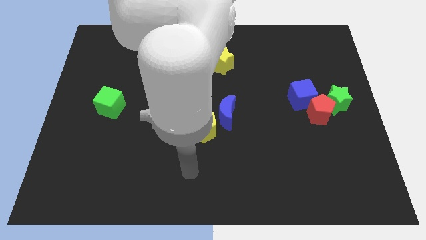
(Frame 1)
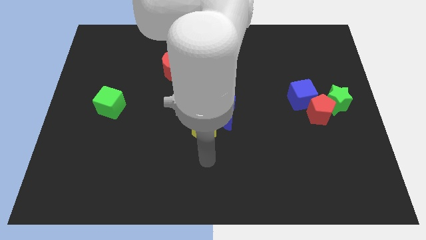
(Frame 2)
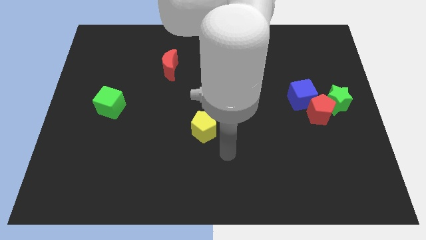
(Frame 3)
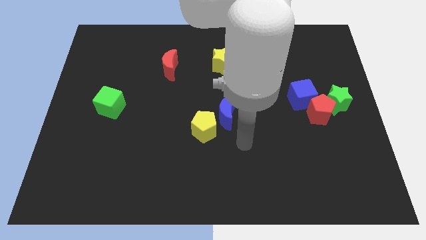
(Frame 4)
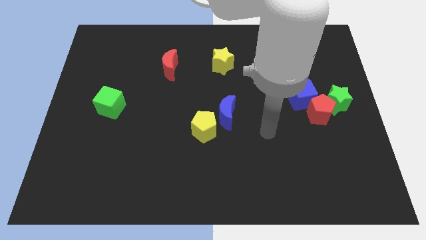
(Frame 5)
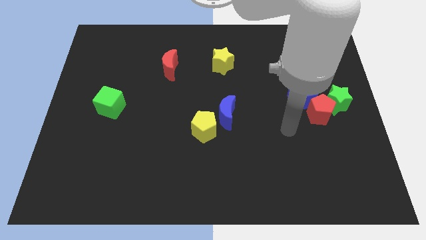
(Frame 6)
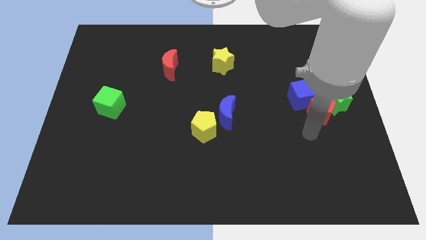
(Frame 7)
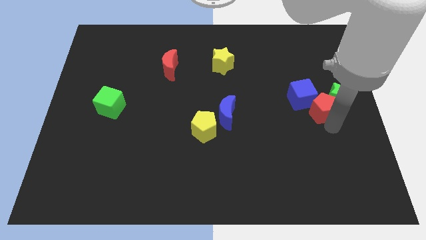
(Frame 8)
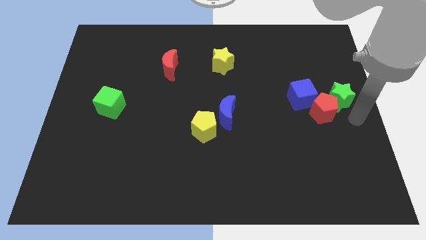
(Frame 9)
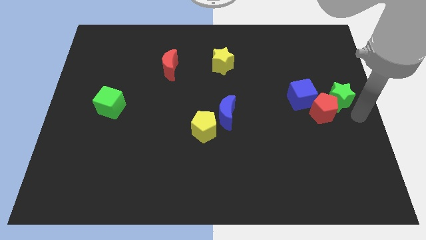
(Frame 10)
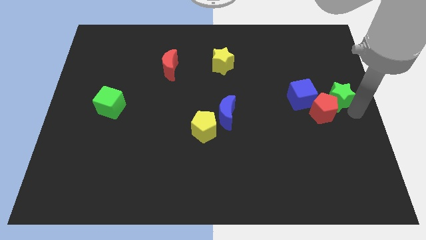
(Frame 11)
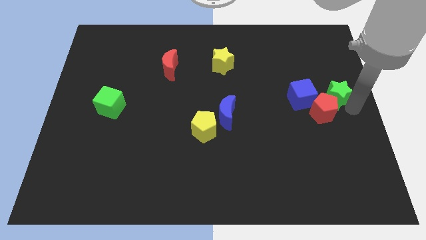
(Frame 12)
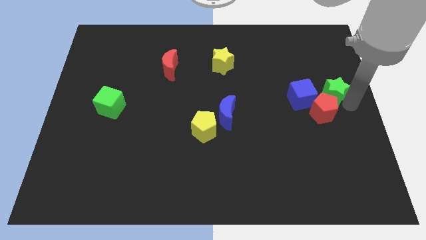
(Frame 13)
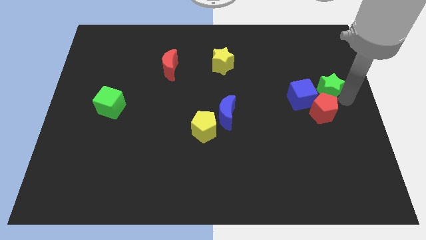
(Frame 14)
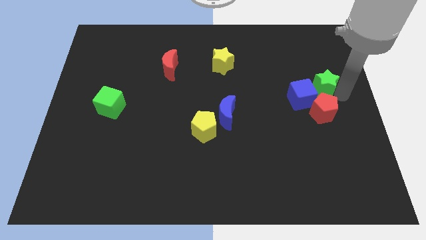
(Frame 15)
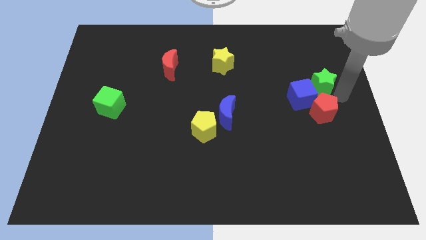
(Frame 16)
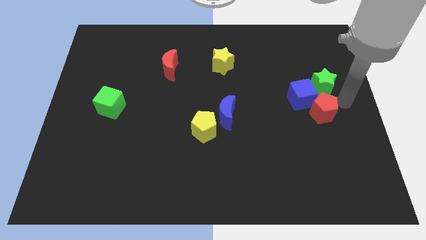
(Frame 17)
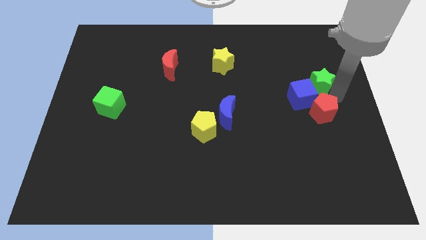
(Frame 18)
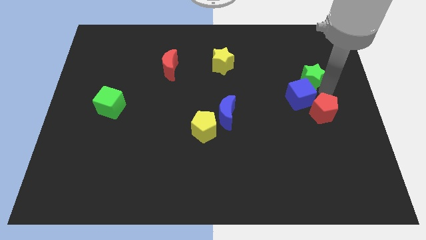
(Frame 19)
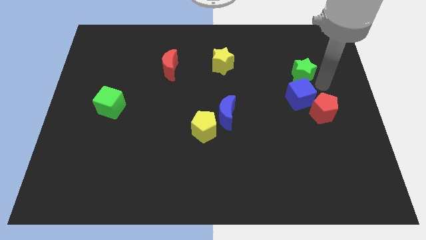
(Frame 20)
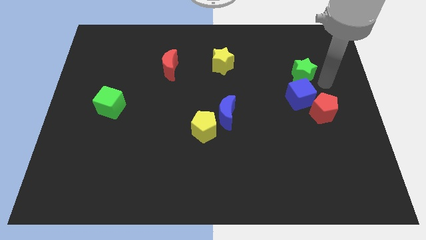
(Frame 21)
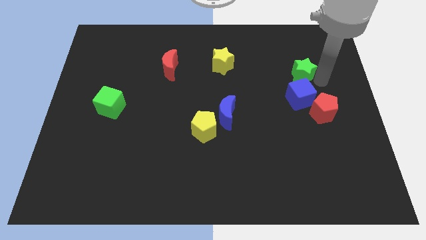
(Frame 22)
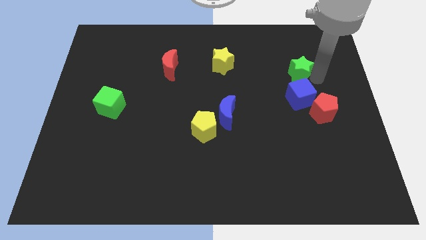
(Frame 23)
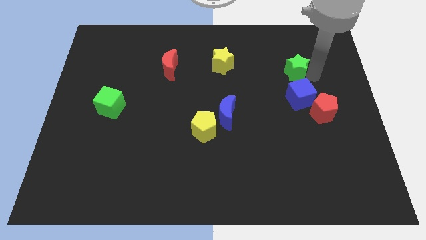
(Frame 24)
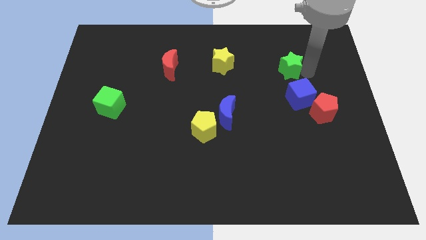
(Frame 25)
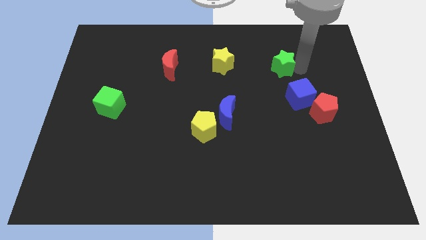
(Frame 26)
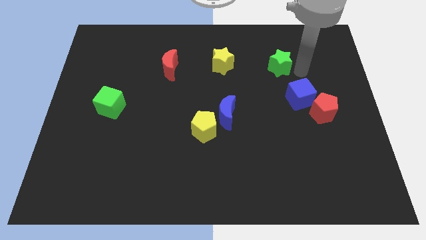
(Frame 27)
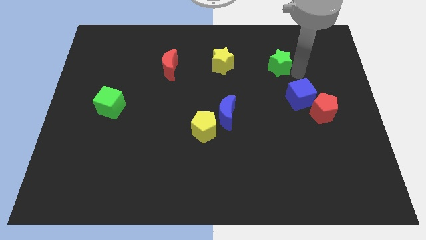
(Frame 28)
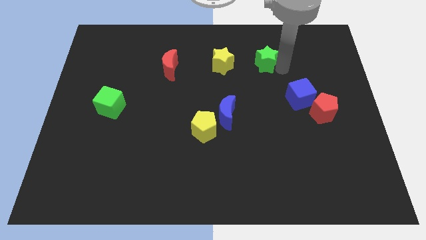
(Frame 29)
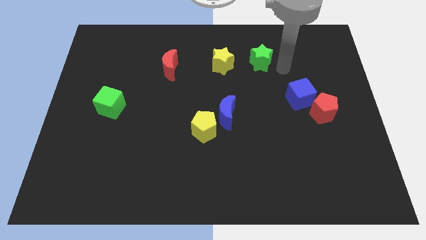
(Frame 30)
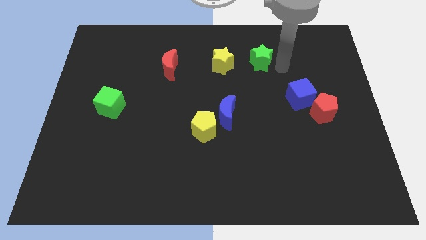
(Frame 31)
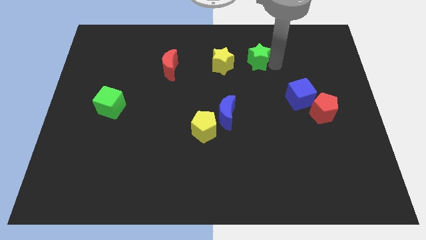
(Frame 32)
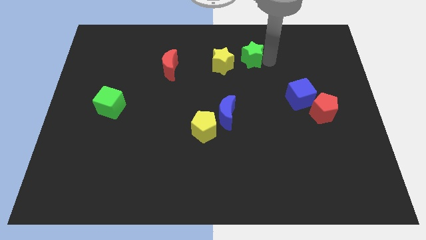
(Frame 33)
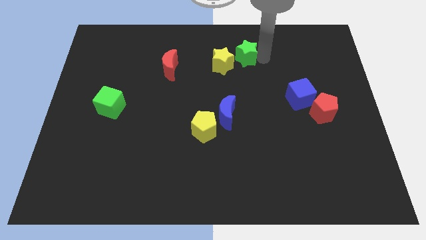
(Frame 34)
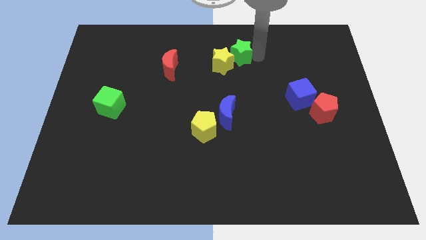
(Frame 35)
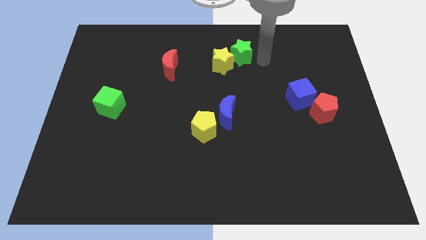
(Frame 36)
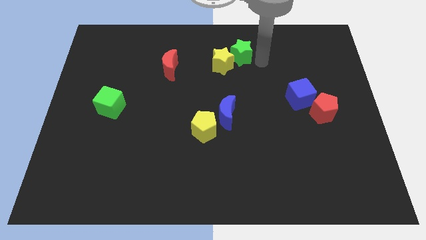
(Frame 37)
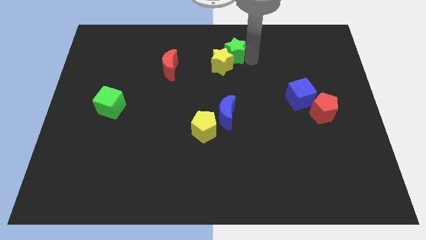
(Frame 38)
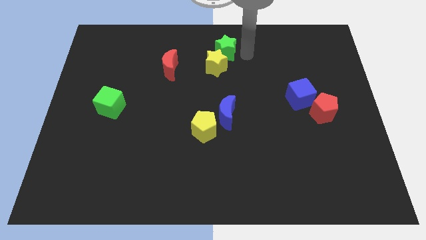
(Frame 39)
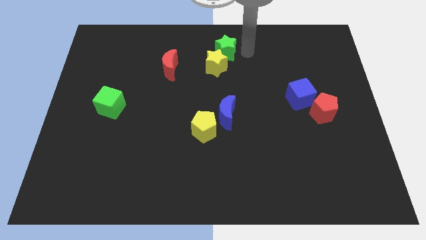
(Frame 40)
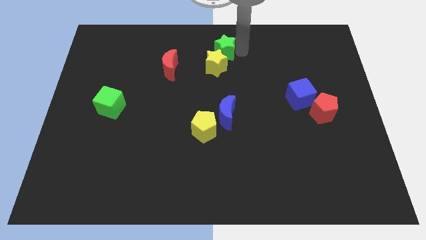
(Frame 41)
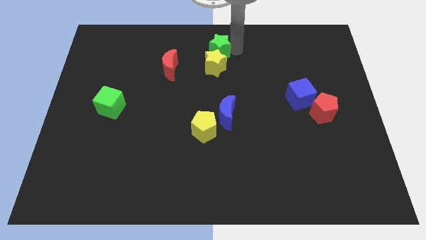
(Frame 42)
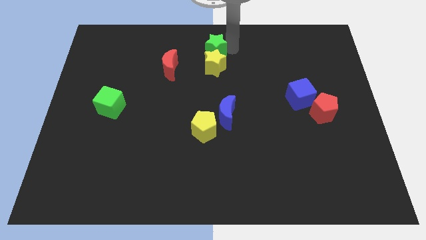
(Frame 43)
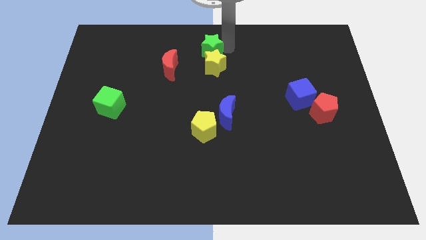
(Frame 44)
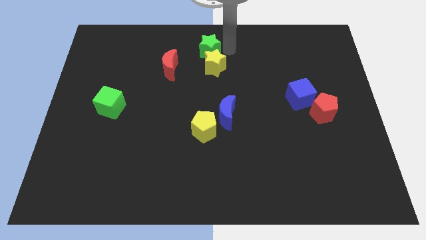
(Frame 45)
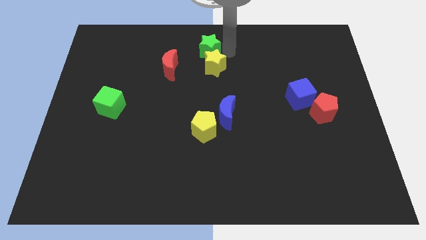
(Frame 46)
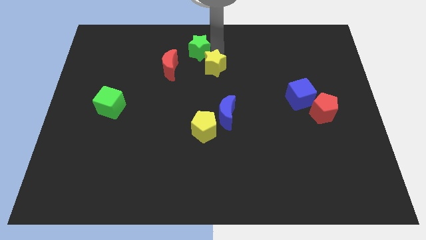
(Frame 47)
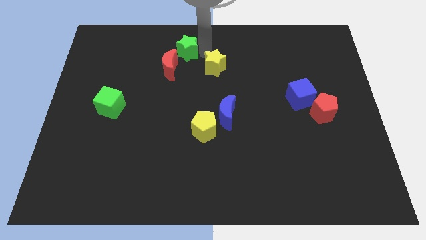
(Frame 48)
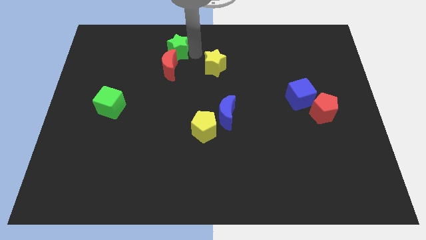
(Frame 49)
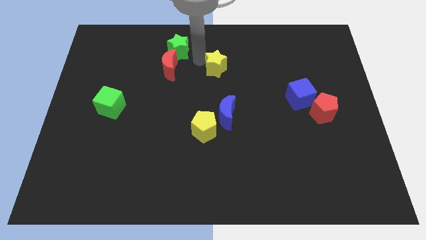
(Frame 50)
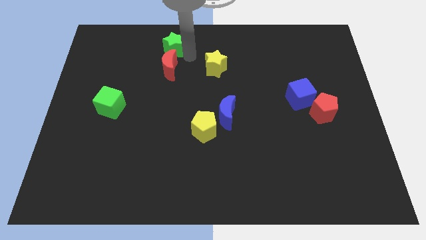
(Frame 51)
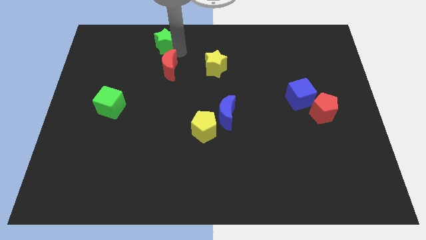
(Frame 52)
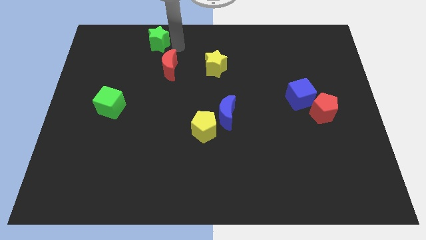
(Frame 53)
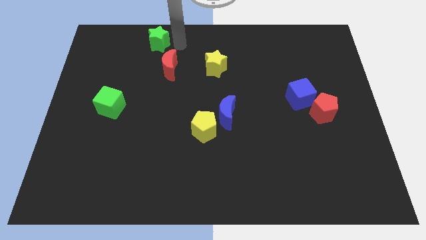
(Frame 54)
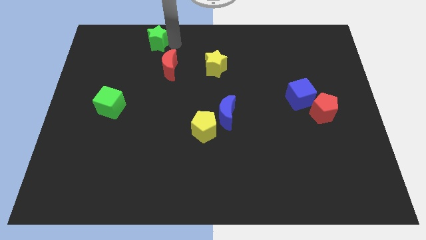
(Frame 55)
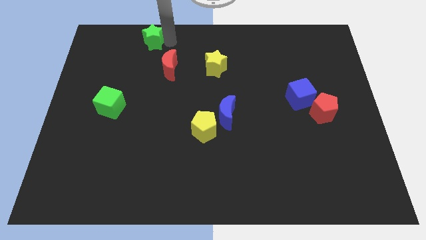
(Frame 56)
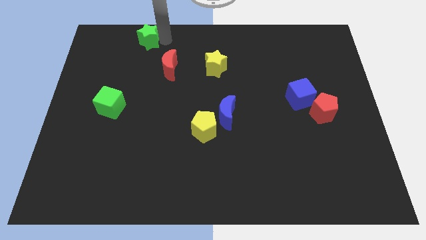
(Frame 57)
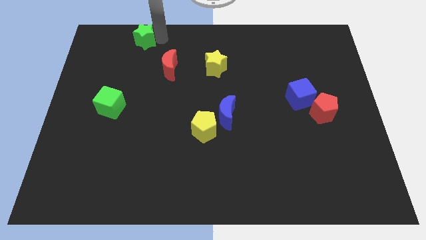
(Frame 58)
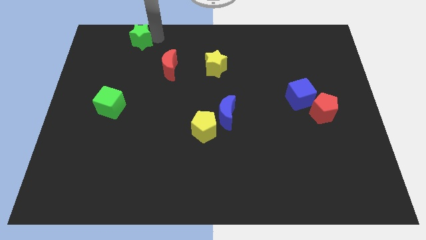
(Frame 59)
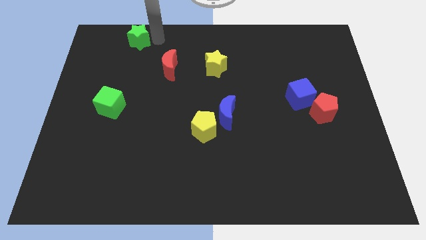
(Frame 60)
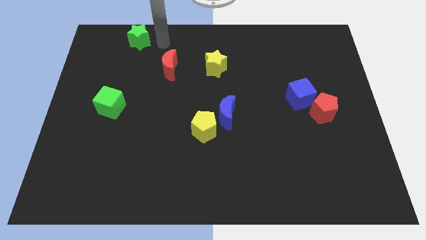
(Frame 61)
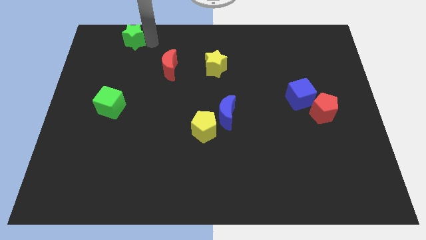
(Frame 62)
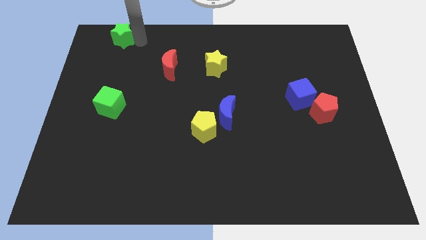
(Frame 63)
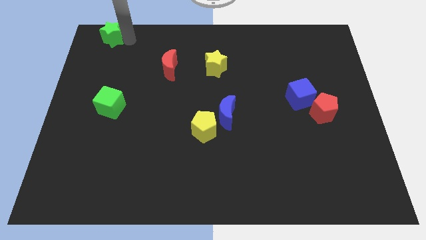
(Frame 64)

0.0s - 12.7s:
put the green star to the top left
